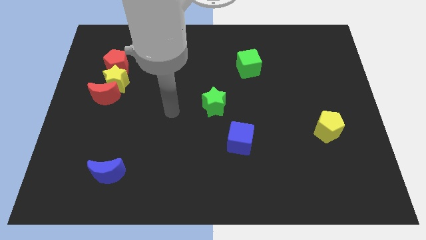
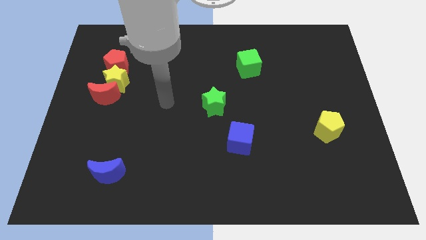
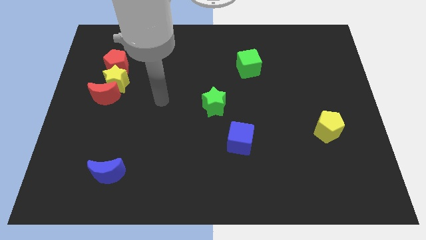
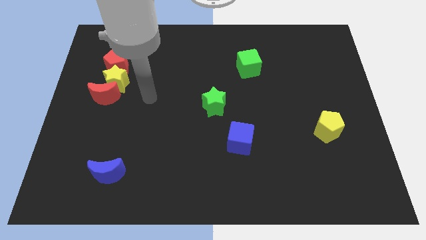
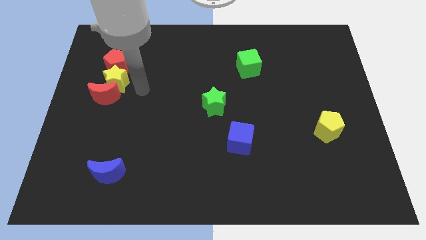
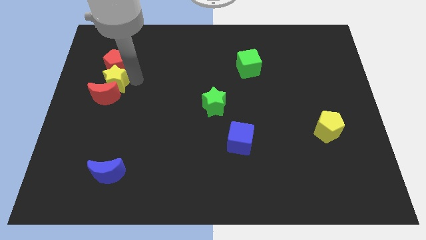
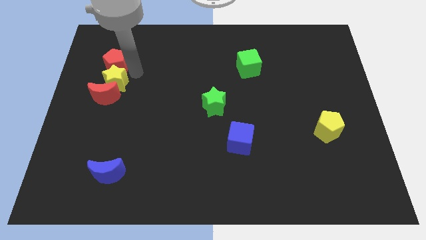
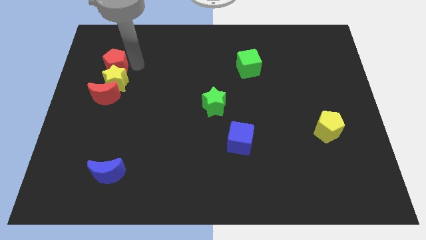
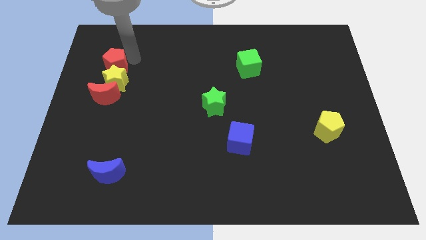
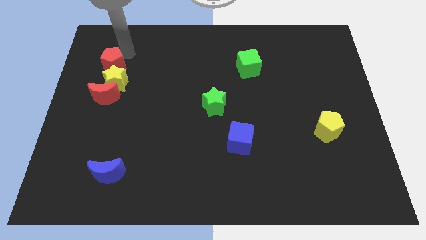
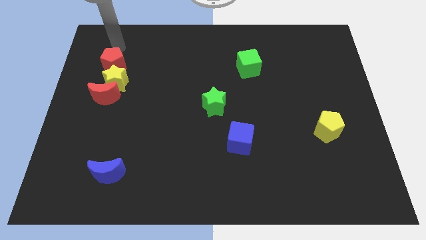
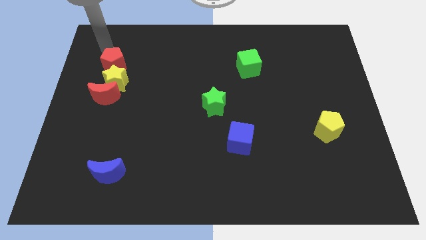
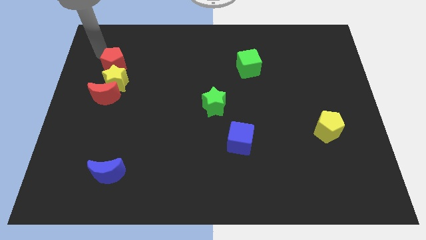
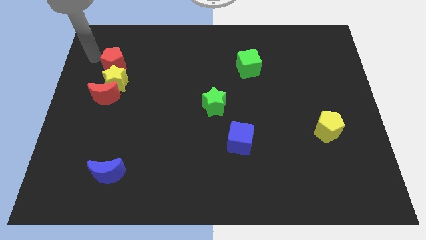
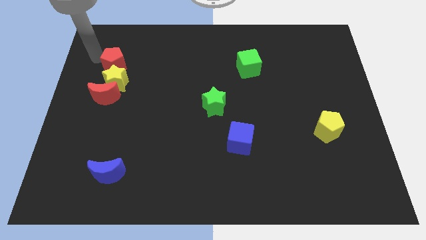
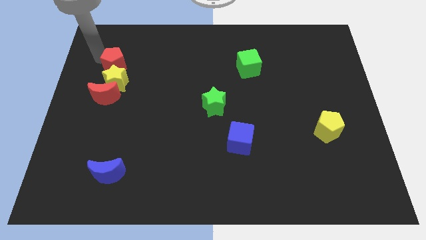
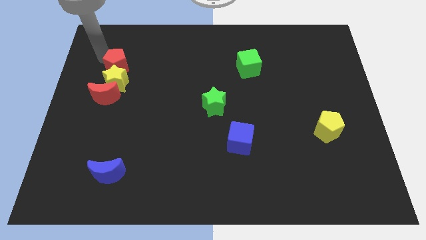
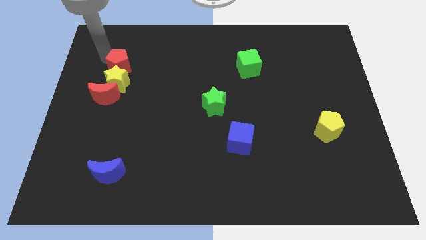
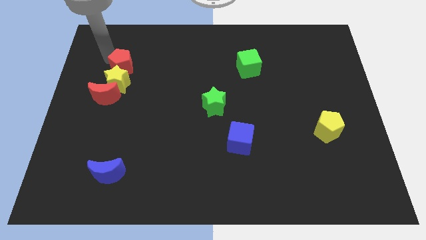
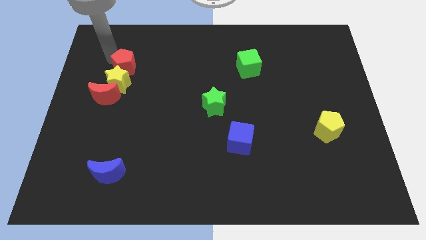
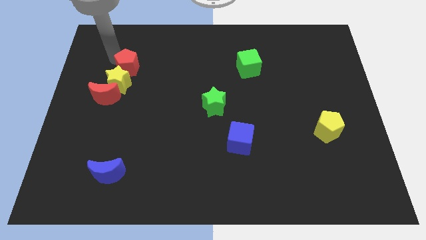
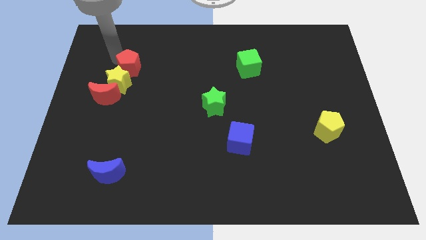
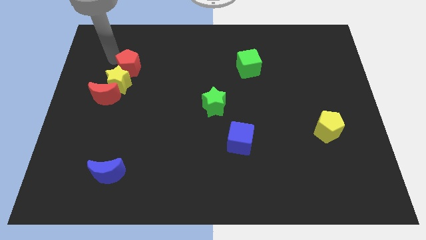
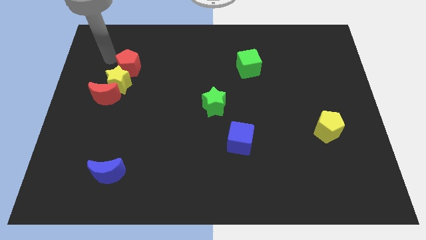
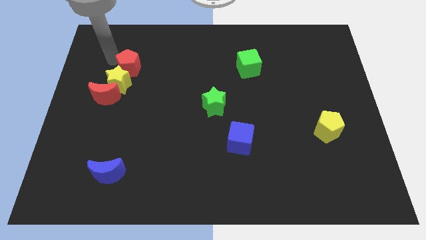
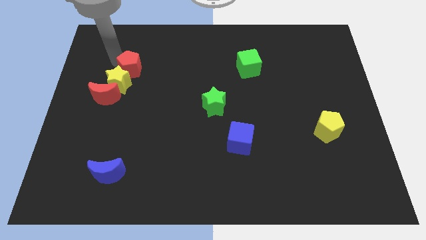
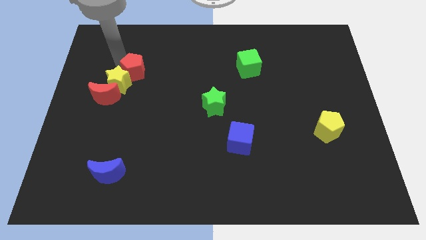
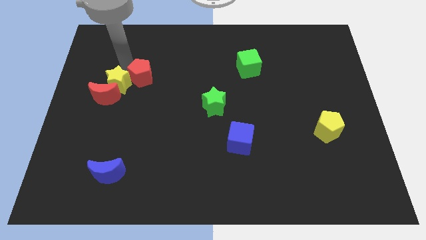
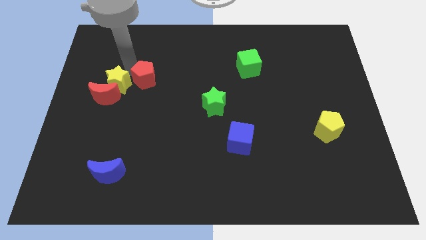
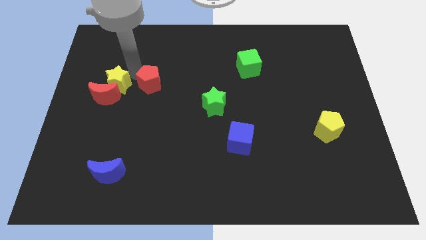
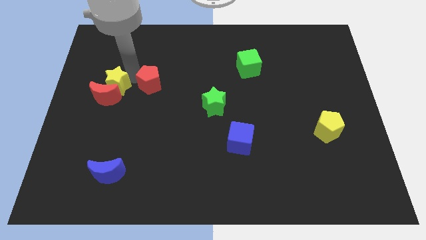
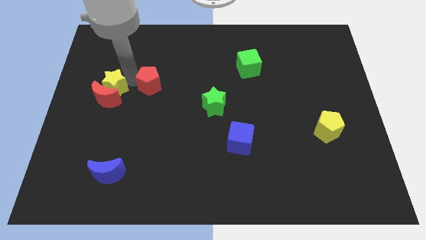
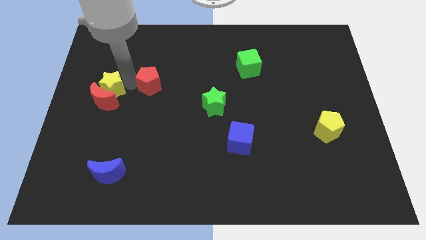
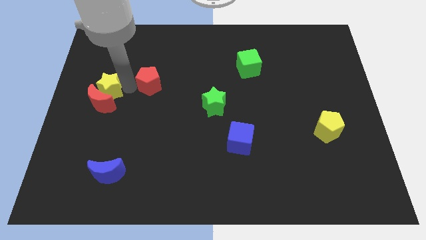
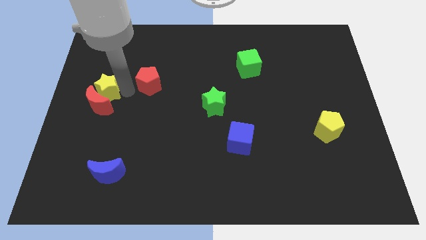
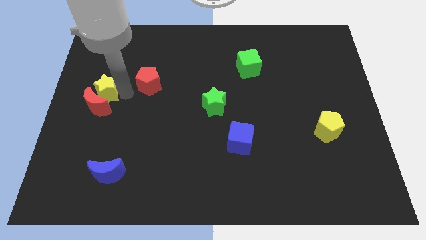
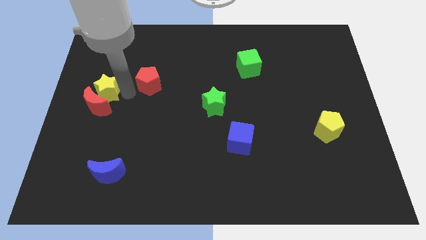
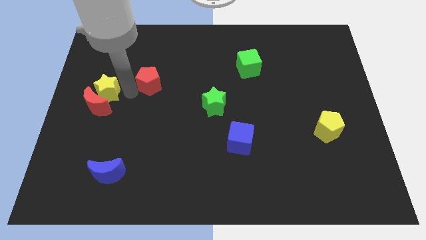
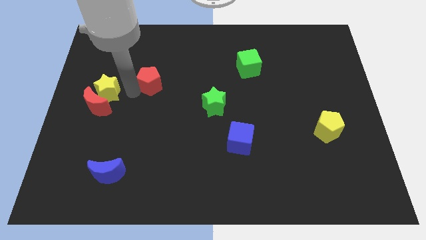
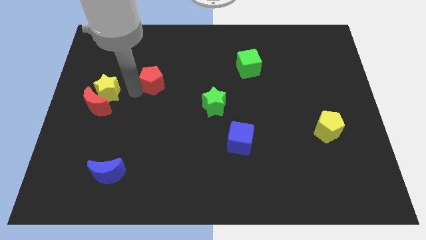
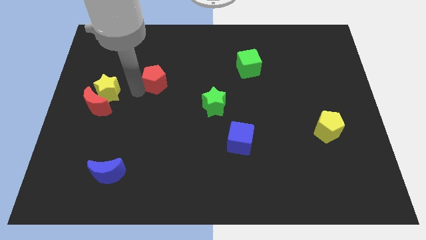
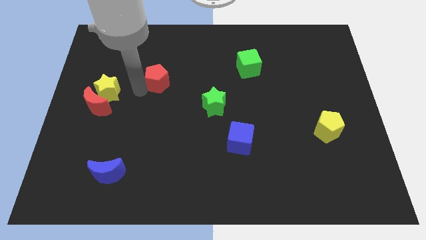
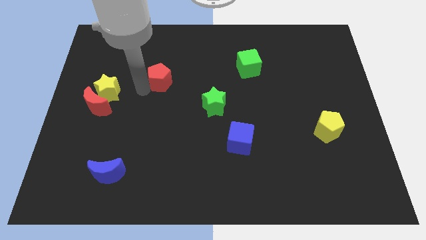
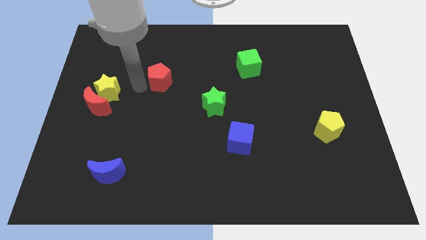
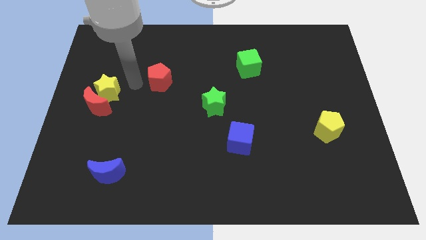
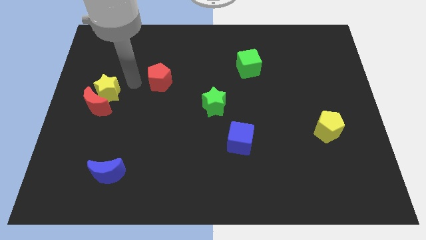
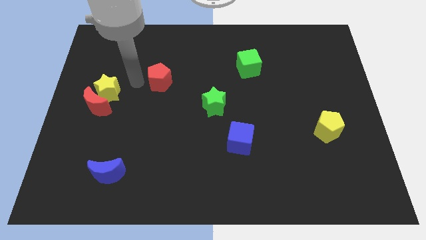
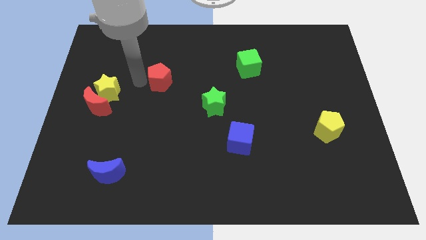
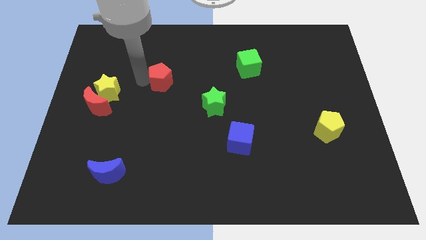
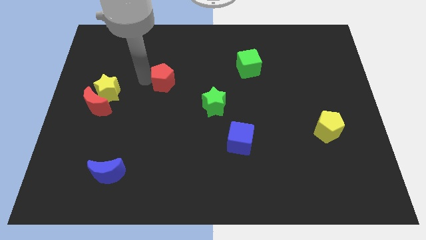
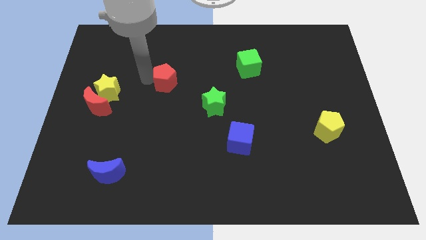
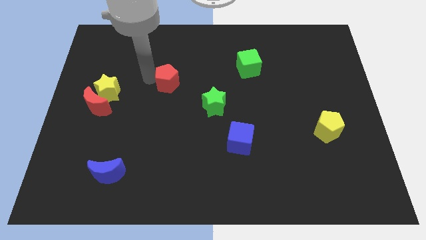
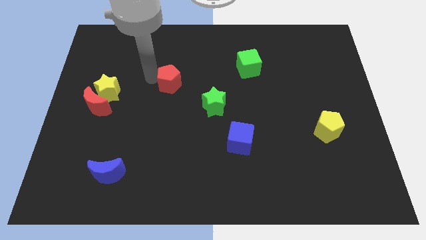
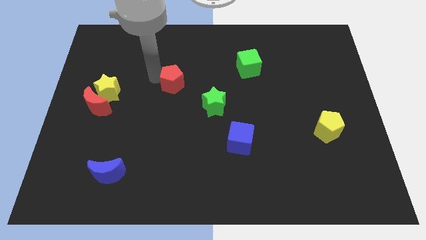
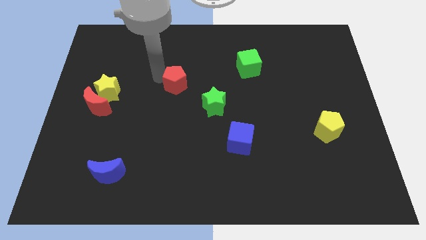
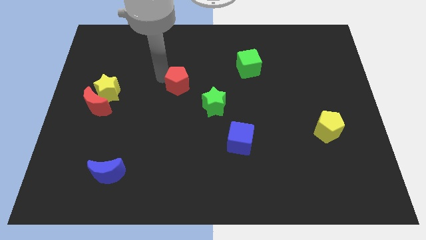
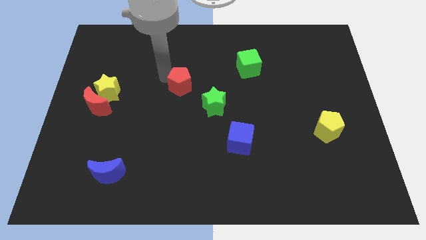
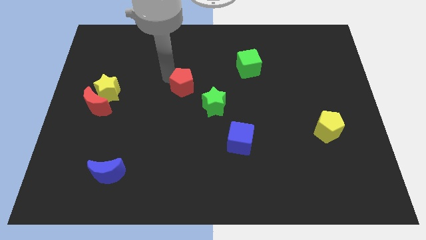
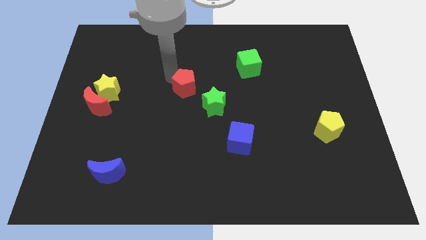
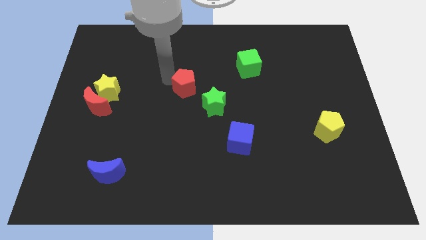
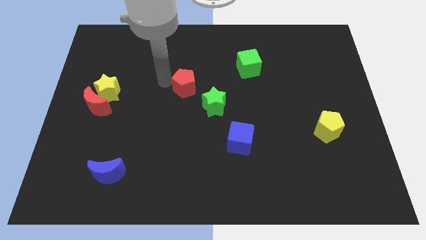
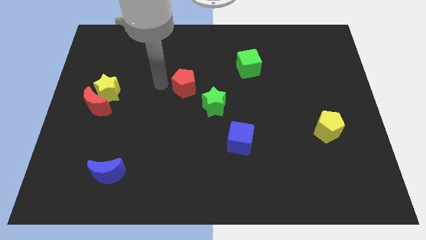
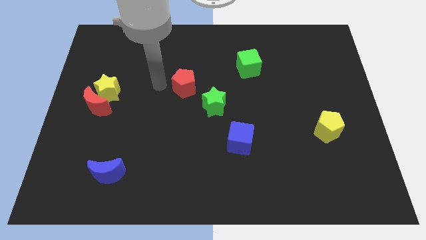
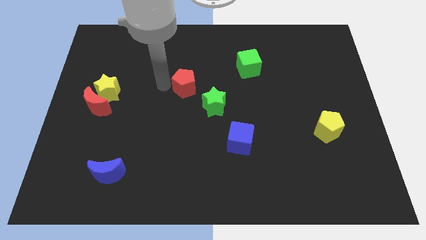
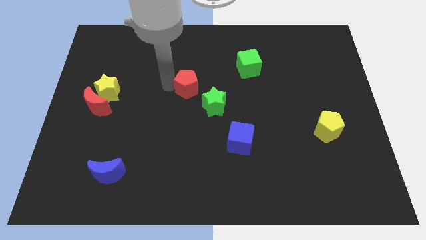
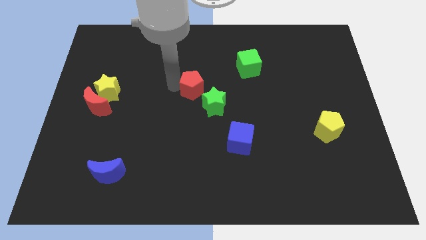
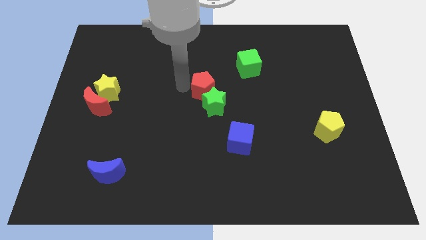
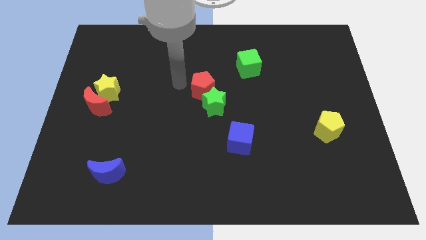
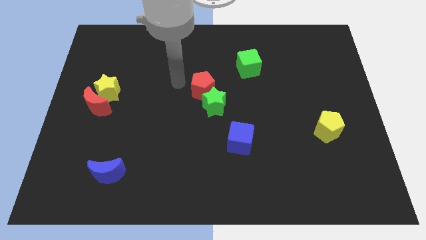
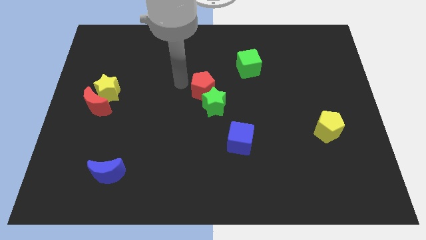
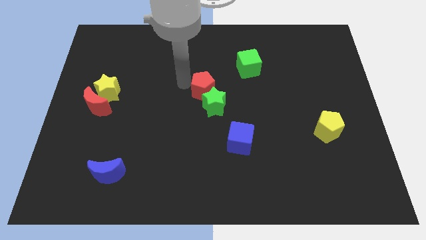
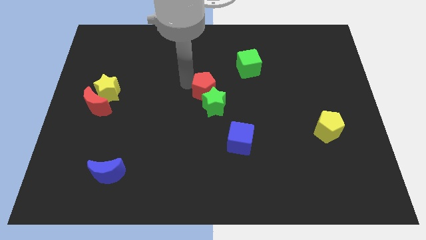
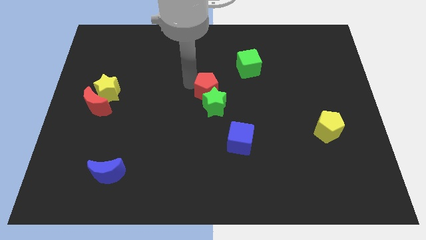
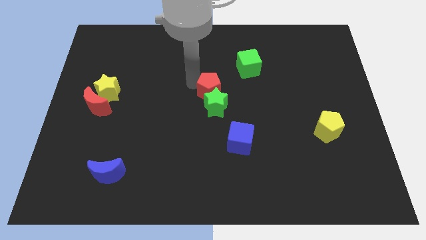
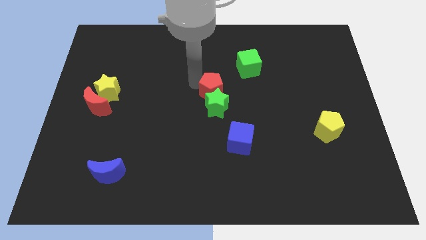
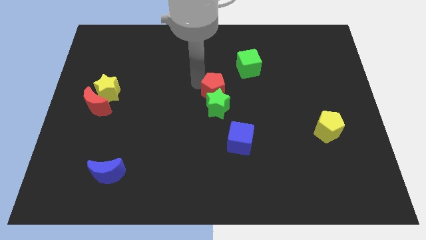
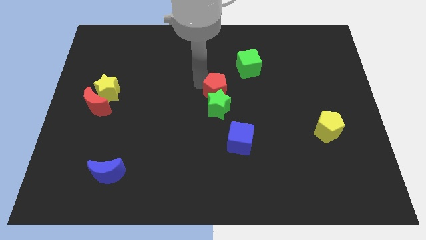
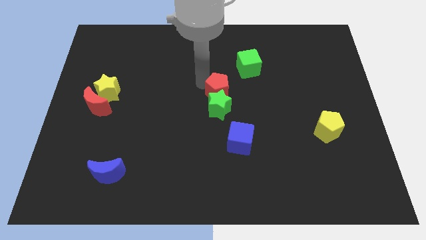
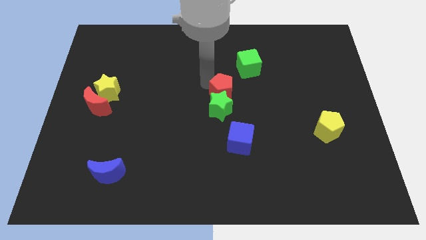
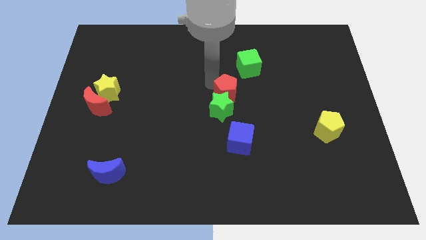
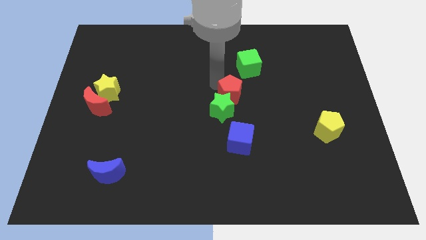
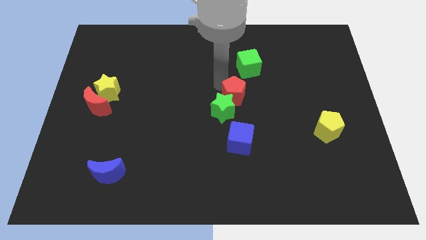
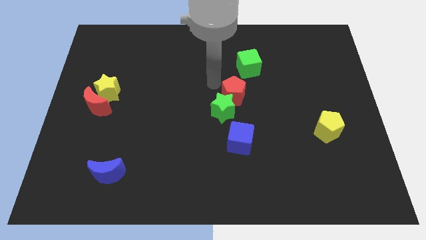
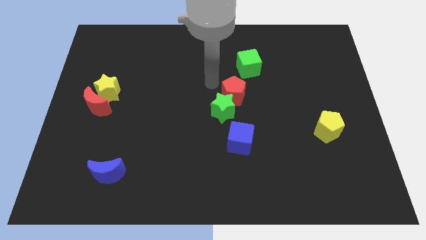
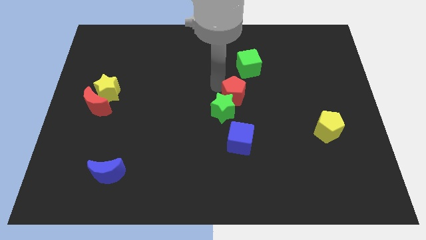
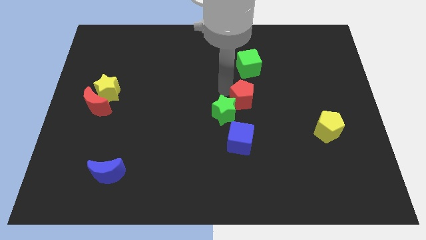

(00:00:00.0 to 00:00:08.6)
move the red pentagon to the right of the green star
